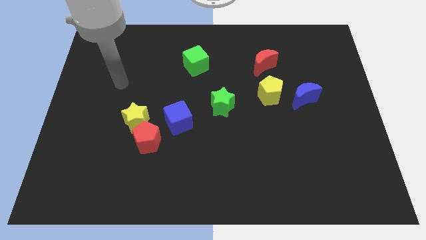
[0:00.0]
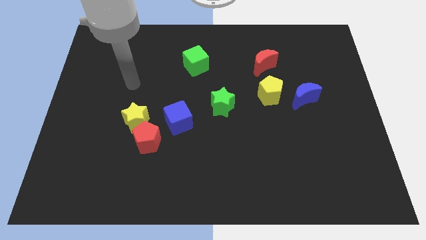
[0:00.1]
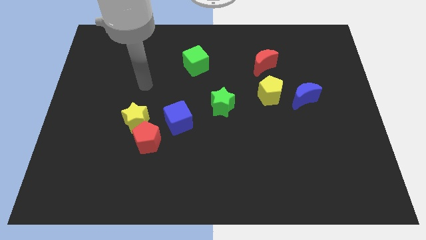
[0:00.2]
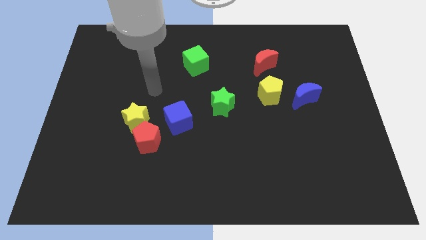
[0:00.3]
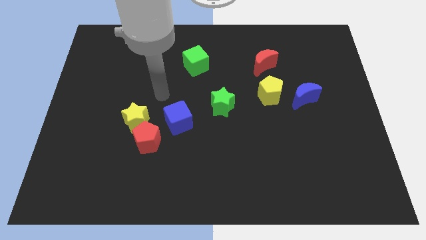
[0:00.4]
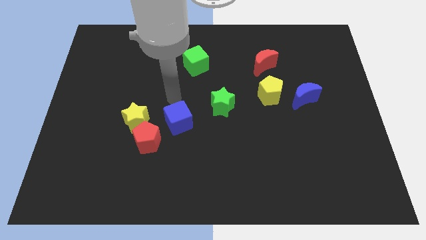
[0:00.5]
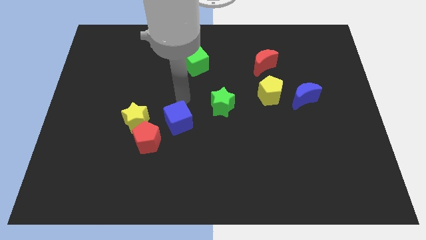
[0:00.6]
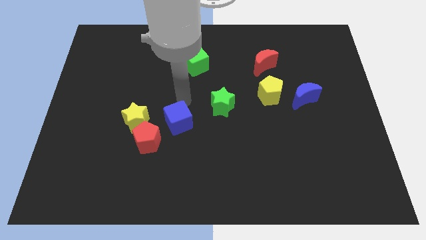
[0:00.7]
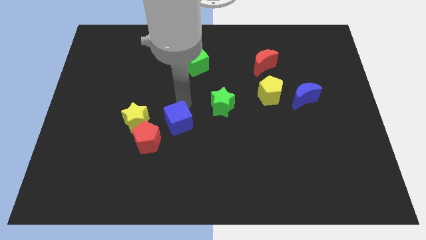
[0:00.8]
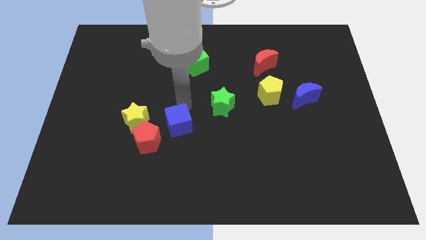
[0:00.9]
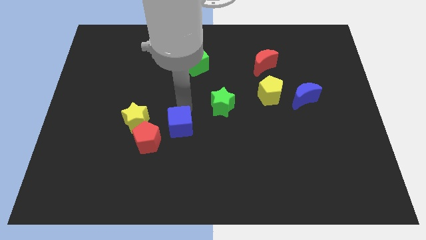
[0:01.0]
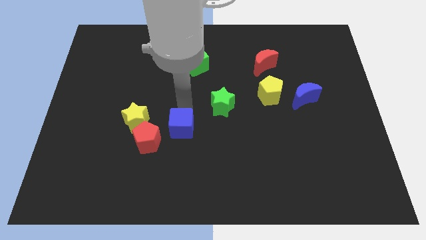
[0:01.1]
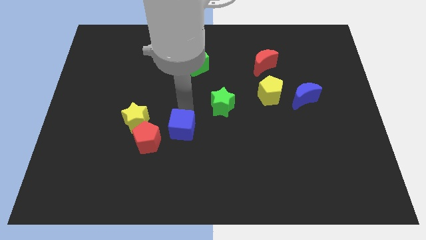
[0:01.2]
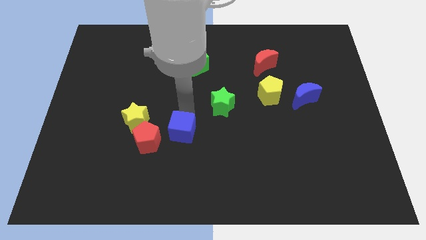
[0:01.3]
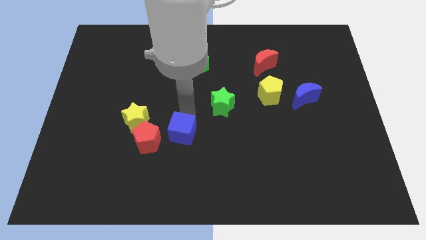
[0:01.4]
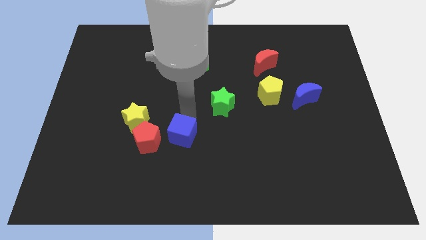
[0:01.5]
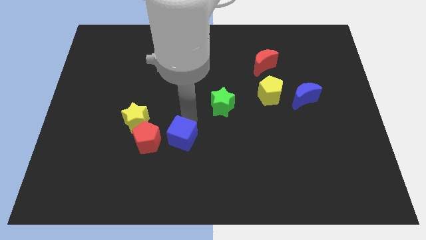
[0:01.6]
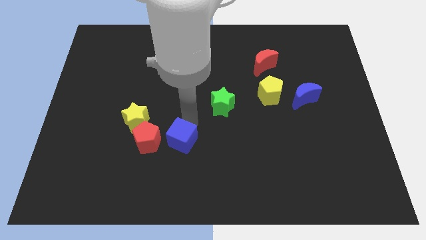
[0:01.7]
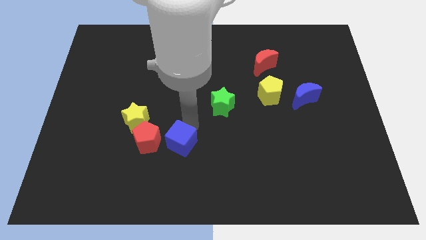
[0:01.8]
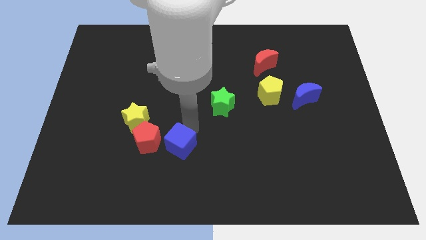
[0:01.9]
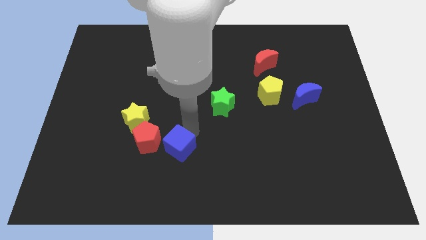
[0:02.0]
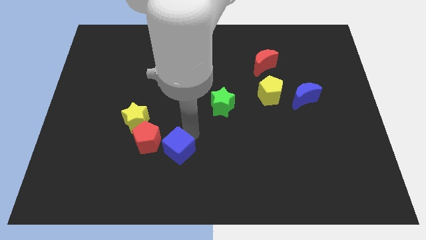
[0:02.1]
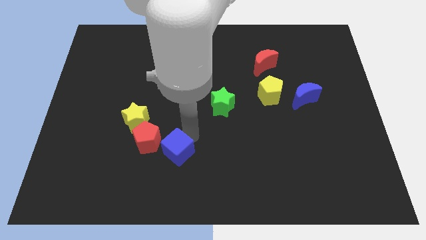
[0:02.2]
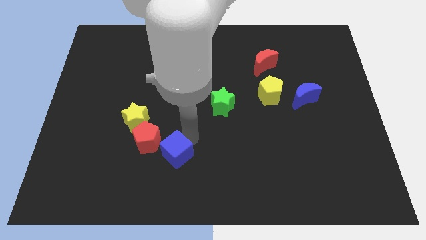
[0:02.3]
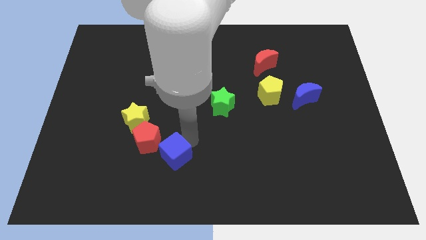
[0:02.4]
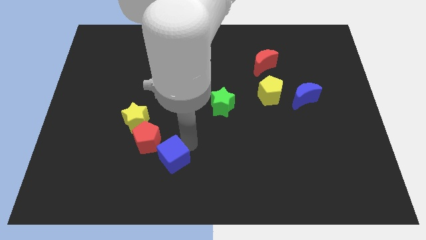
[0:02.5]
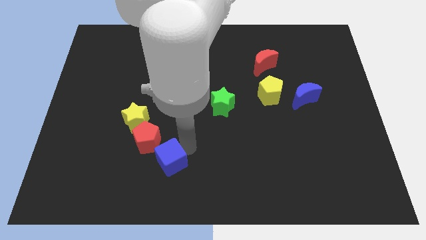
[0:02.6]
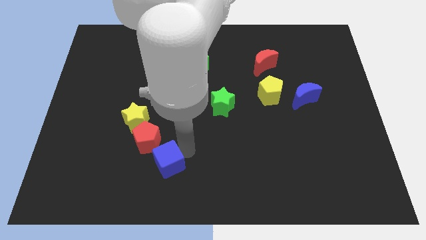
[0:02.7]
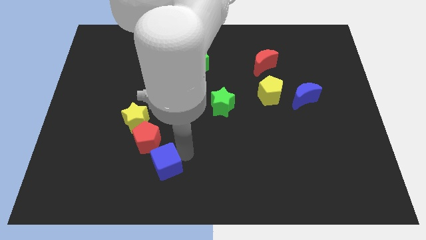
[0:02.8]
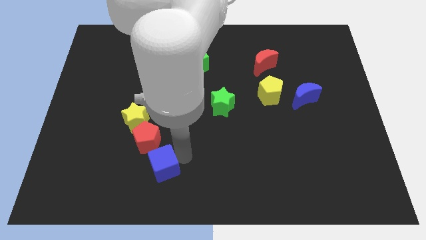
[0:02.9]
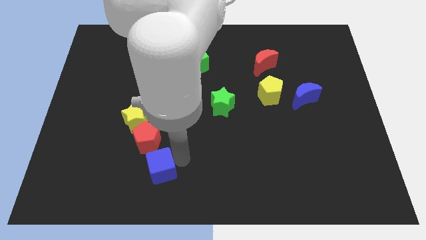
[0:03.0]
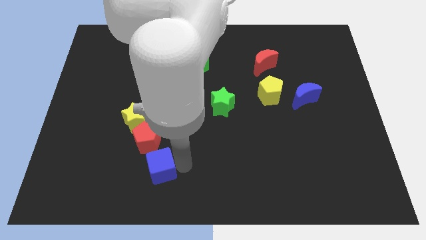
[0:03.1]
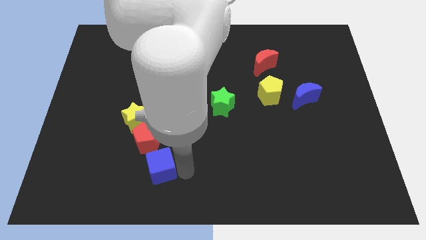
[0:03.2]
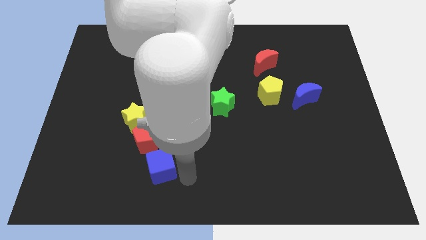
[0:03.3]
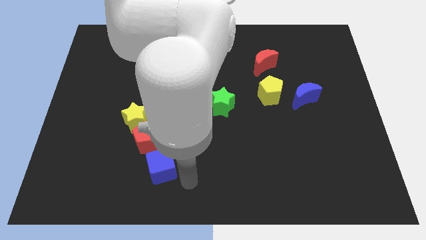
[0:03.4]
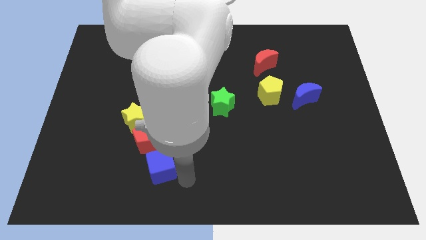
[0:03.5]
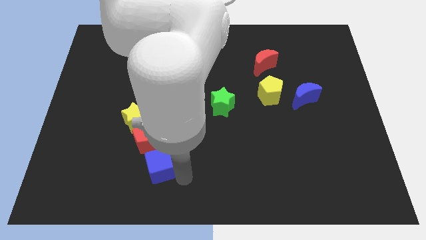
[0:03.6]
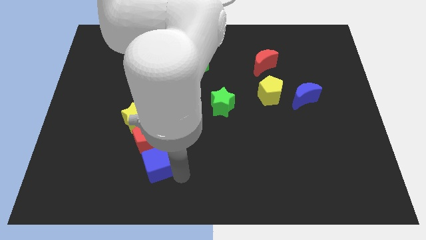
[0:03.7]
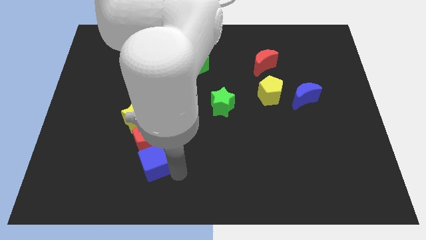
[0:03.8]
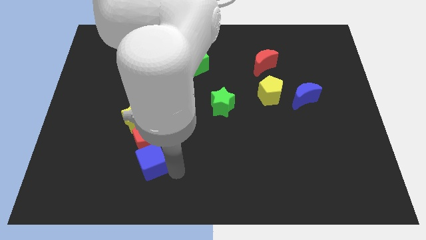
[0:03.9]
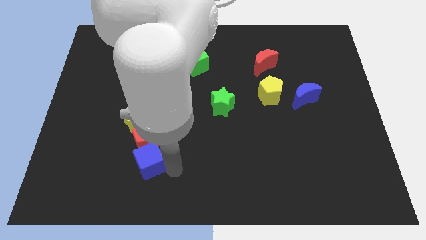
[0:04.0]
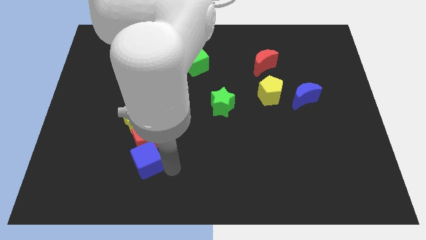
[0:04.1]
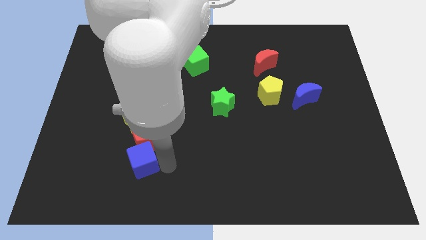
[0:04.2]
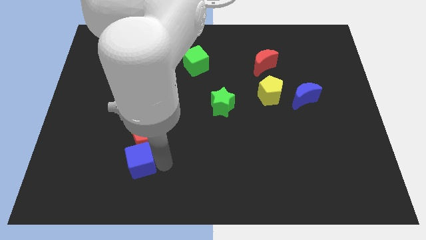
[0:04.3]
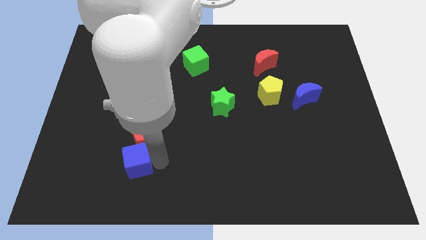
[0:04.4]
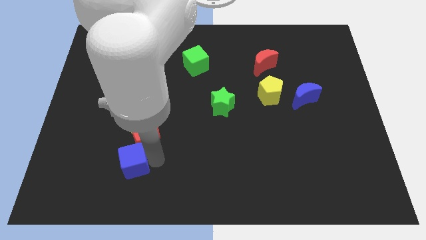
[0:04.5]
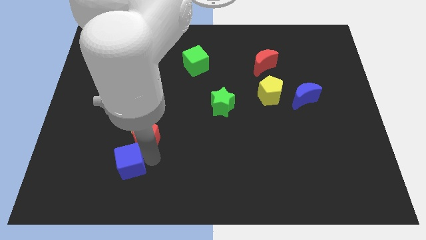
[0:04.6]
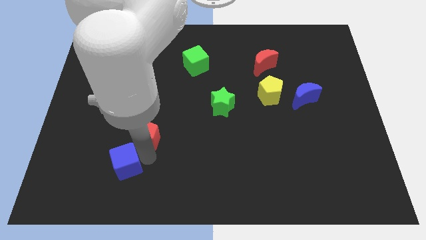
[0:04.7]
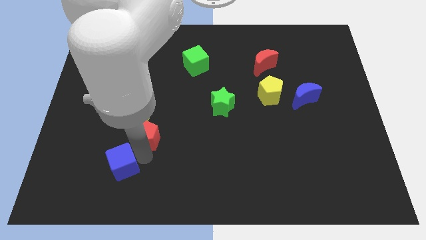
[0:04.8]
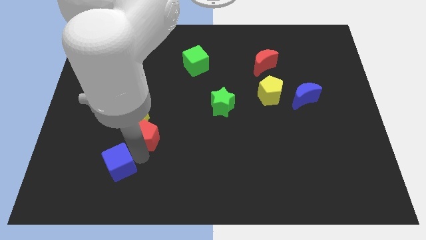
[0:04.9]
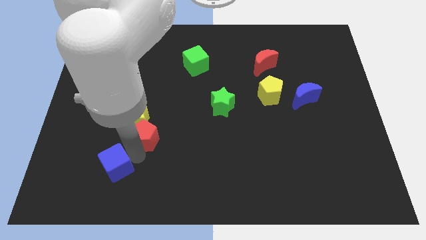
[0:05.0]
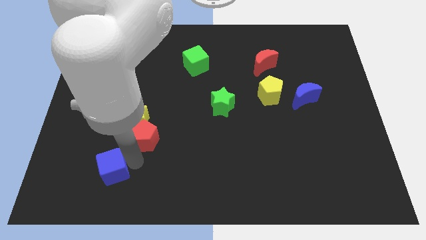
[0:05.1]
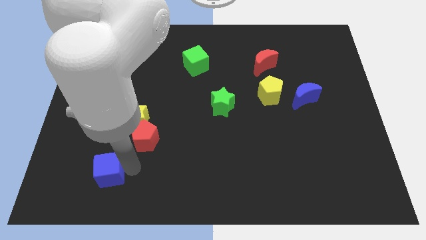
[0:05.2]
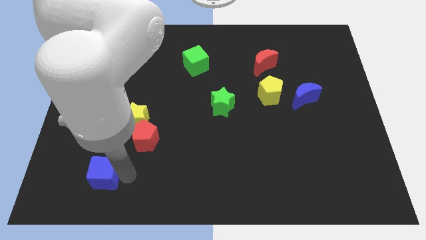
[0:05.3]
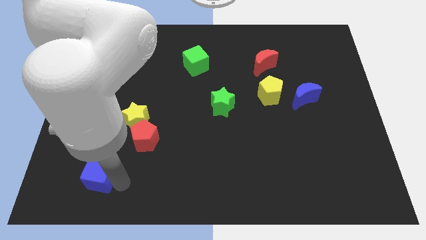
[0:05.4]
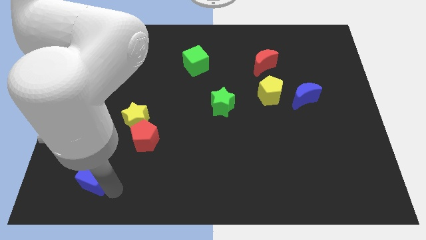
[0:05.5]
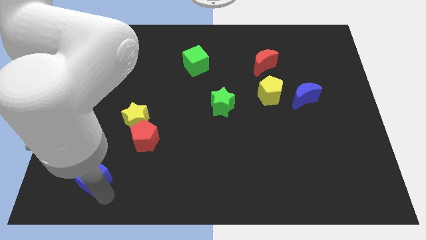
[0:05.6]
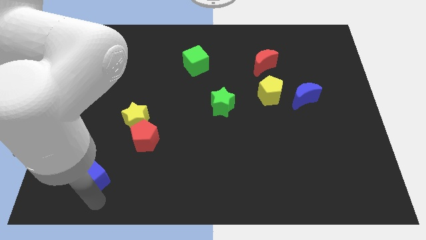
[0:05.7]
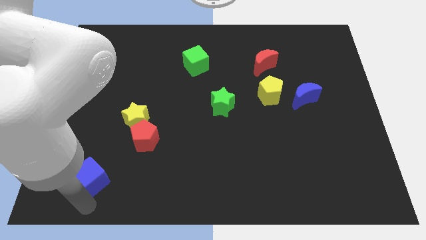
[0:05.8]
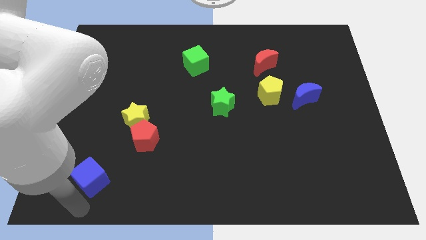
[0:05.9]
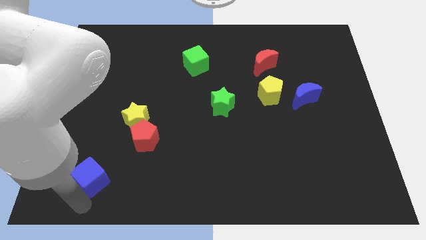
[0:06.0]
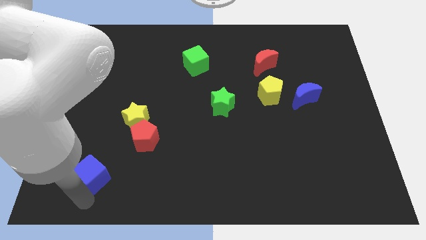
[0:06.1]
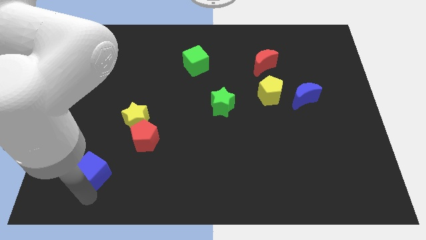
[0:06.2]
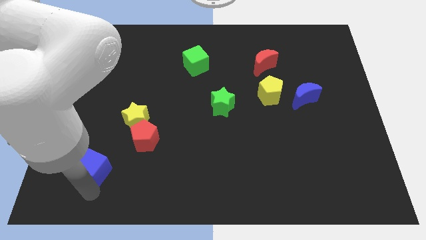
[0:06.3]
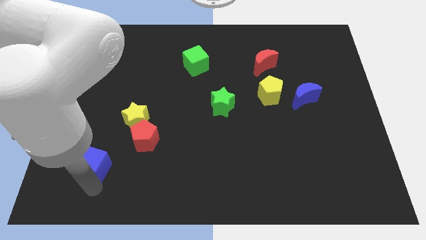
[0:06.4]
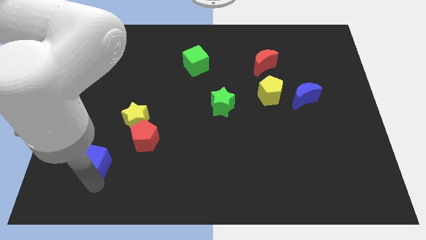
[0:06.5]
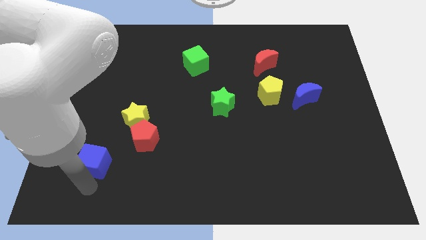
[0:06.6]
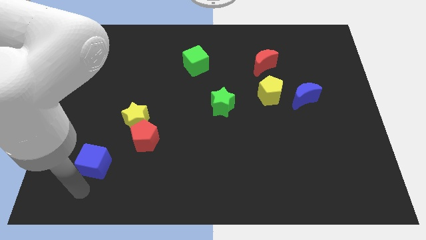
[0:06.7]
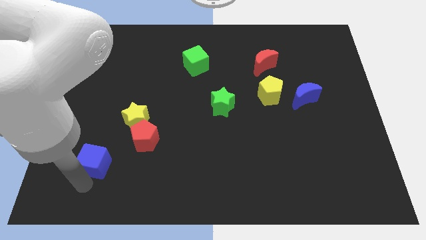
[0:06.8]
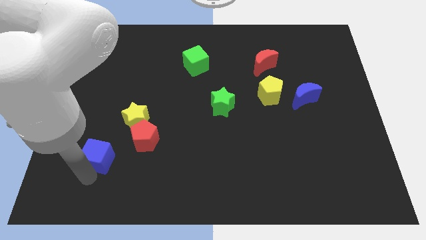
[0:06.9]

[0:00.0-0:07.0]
push the blue cube to the bottom left of the yellow star

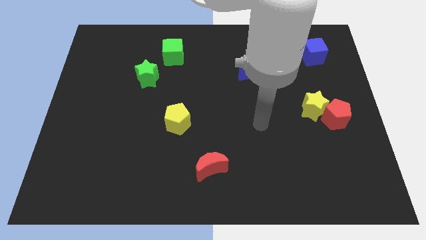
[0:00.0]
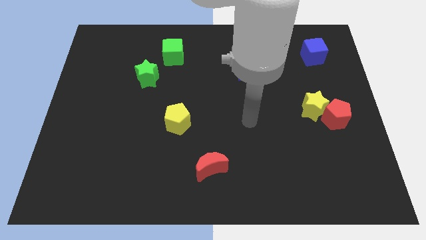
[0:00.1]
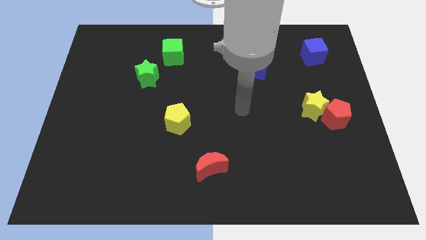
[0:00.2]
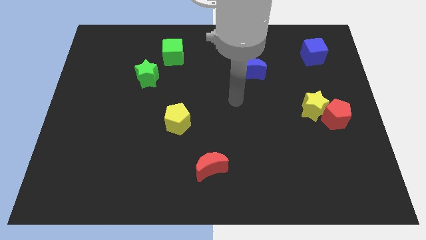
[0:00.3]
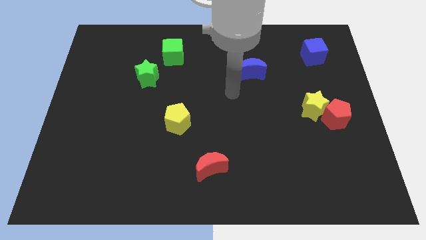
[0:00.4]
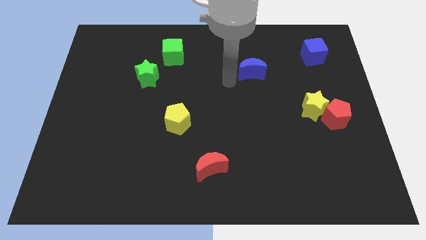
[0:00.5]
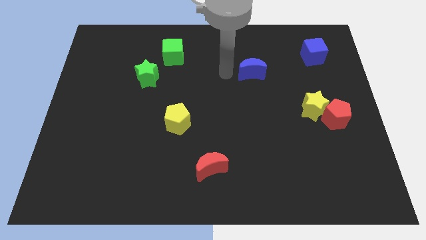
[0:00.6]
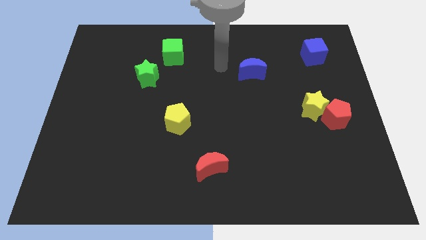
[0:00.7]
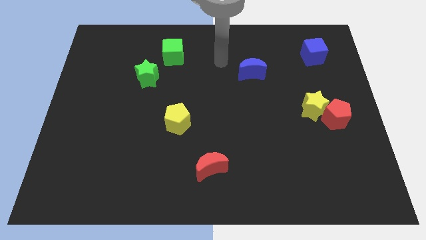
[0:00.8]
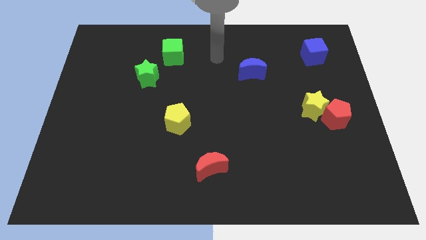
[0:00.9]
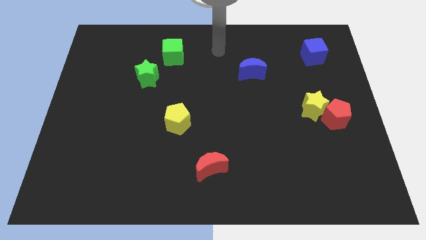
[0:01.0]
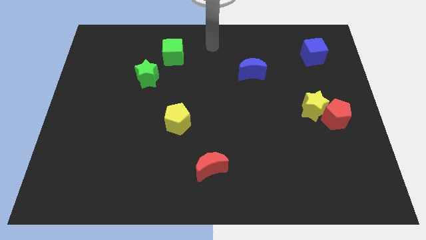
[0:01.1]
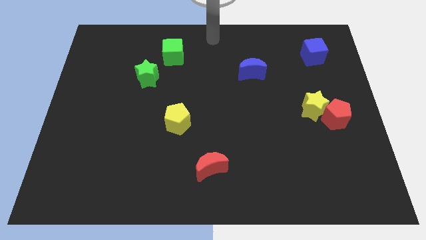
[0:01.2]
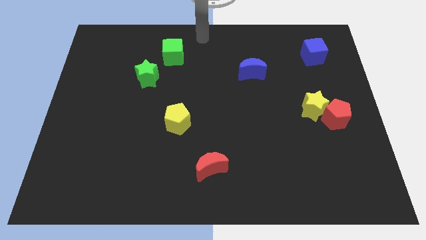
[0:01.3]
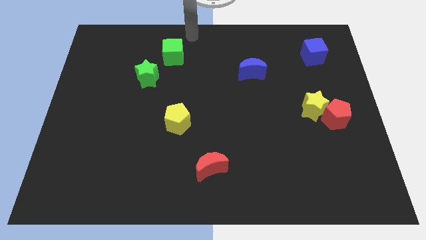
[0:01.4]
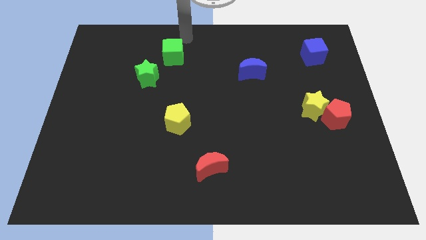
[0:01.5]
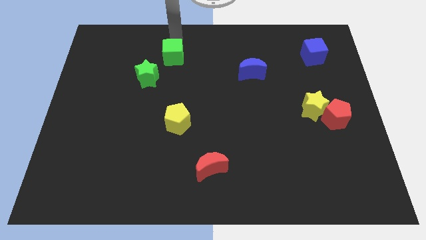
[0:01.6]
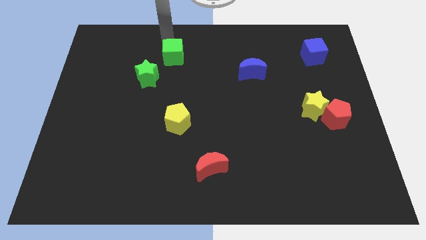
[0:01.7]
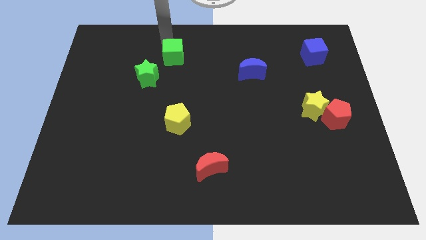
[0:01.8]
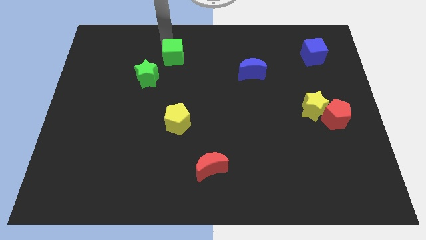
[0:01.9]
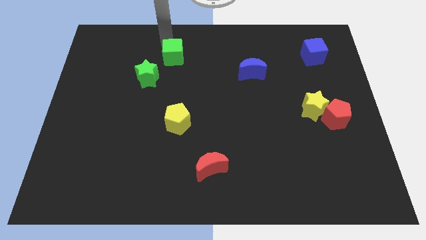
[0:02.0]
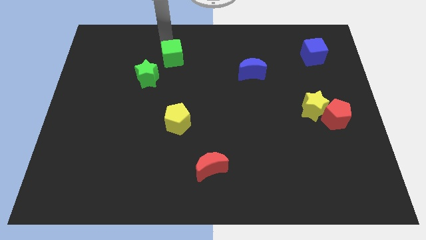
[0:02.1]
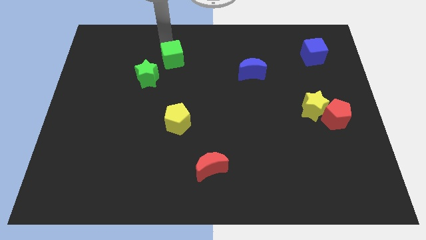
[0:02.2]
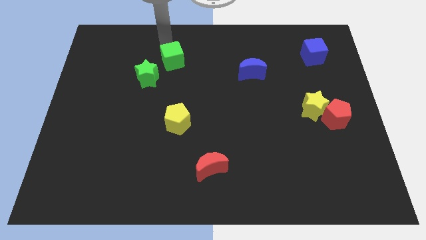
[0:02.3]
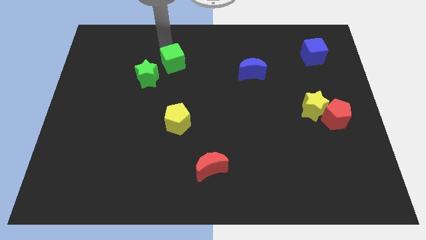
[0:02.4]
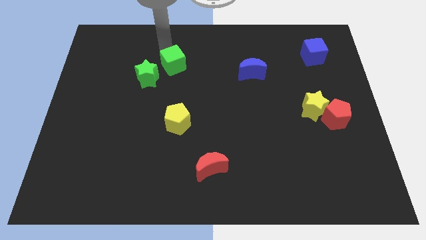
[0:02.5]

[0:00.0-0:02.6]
slide the green cube just right of the green star
